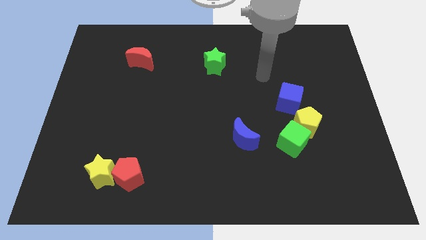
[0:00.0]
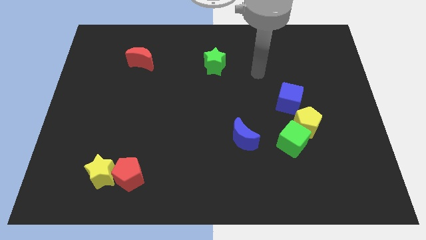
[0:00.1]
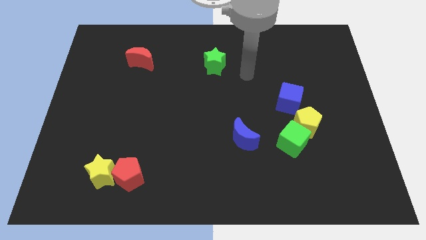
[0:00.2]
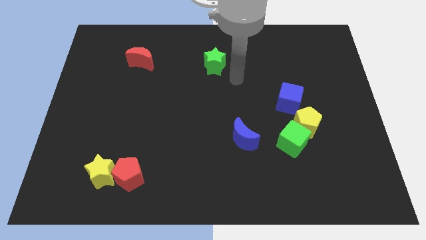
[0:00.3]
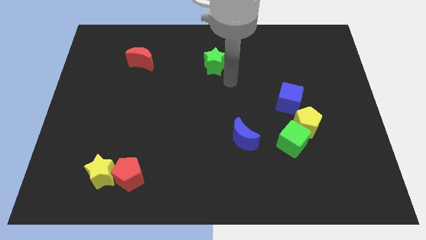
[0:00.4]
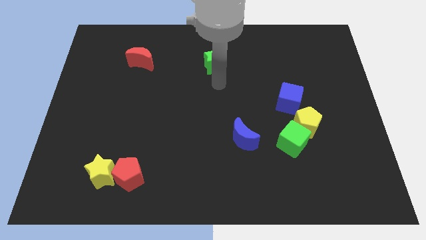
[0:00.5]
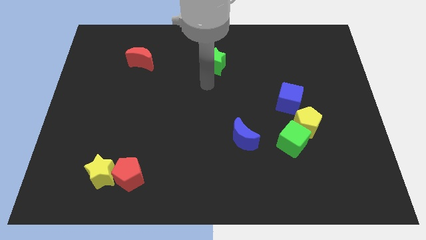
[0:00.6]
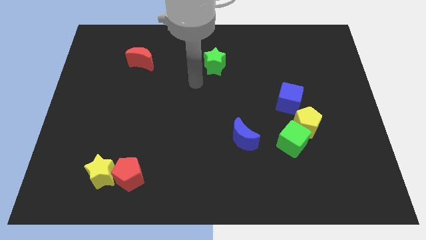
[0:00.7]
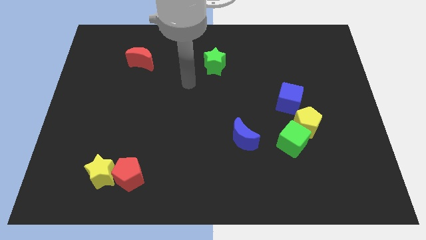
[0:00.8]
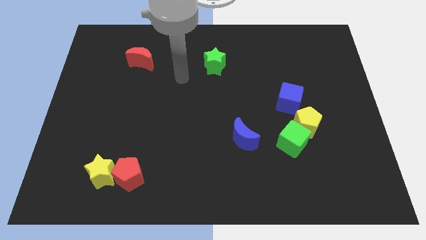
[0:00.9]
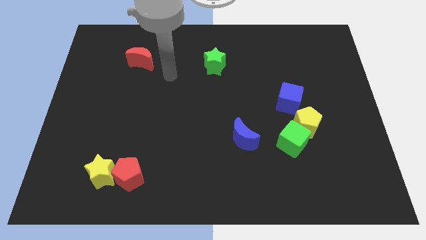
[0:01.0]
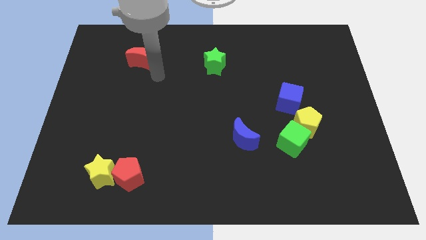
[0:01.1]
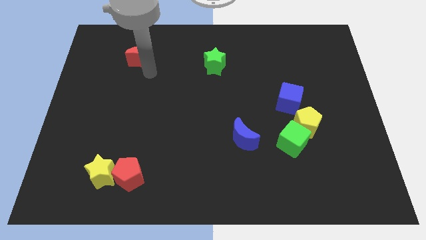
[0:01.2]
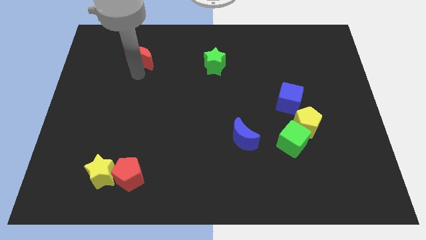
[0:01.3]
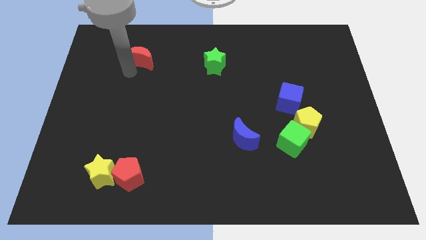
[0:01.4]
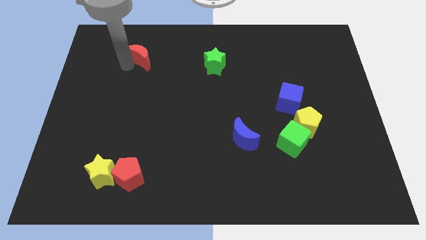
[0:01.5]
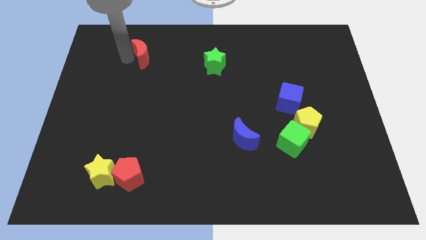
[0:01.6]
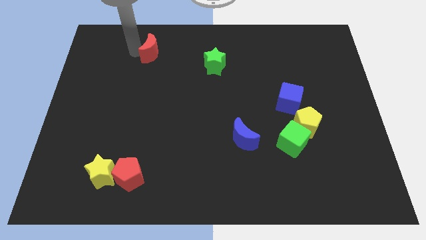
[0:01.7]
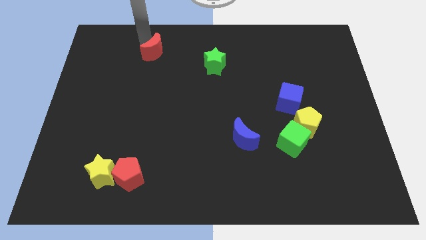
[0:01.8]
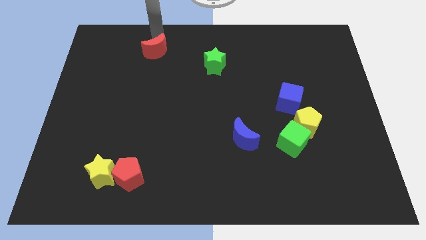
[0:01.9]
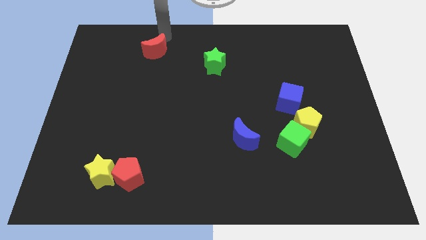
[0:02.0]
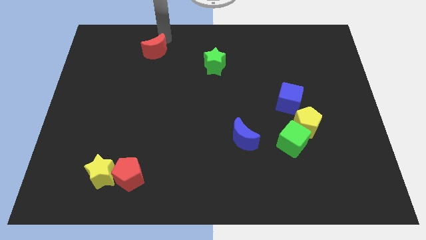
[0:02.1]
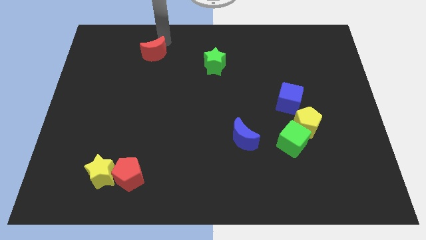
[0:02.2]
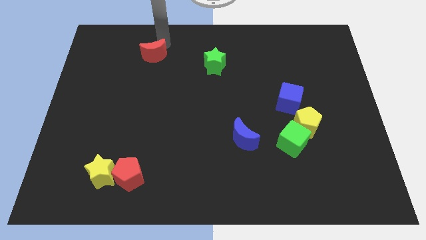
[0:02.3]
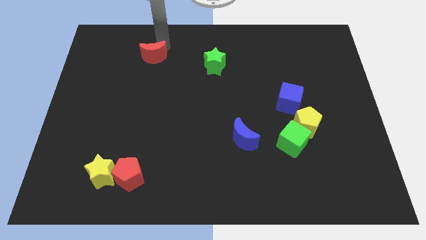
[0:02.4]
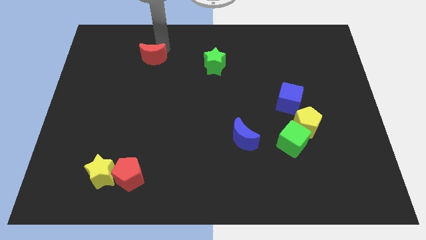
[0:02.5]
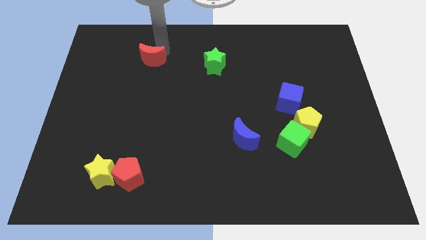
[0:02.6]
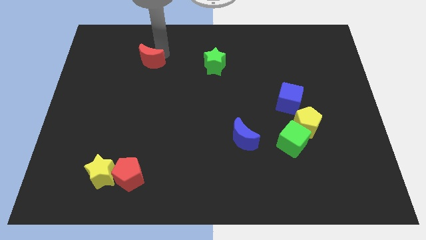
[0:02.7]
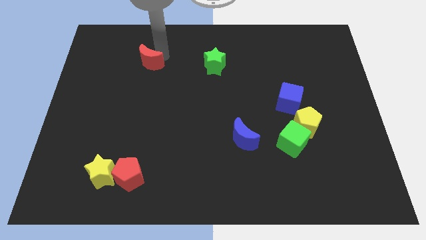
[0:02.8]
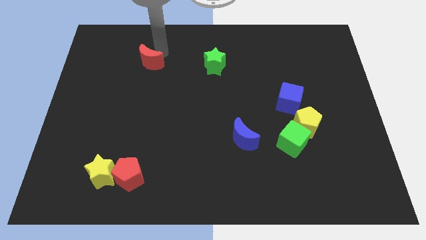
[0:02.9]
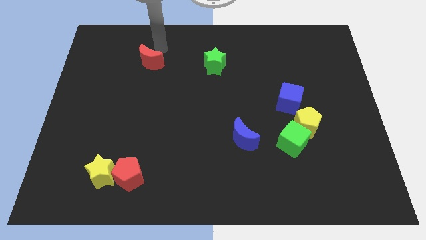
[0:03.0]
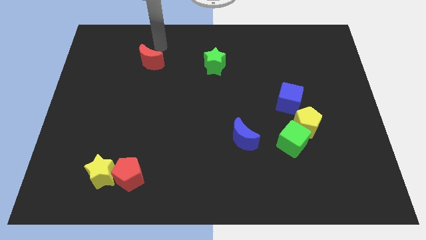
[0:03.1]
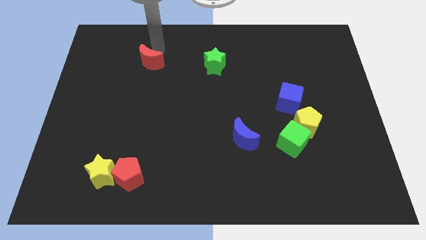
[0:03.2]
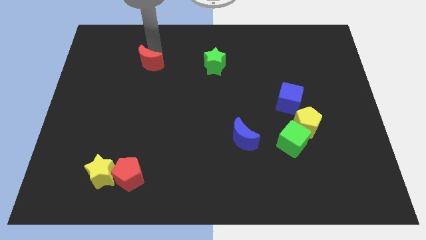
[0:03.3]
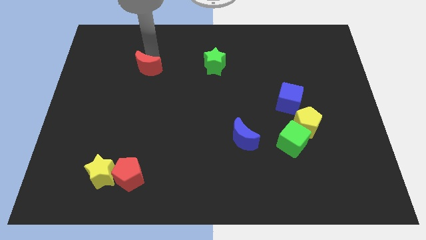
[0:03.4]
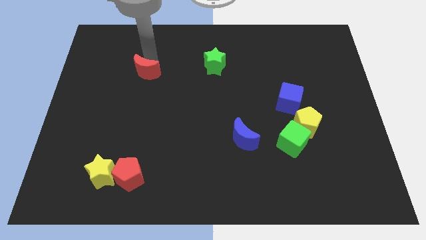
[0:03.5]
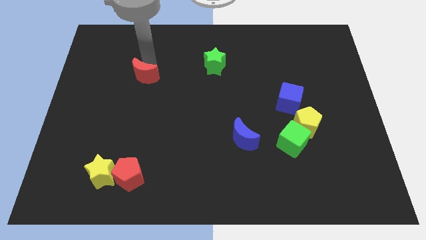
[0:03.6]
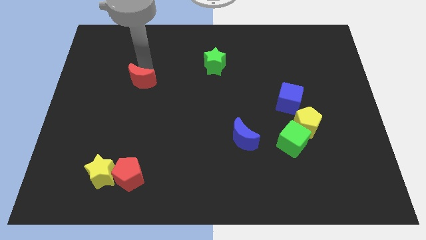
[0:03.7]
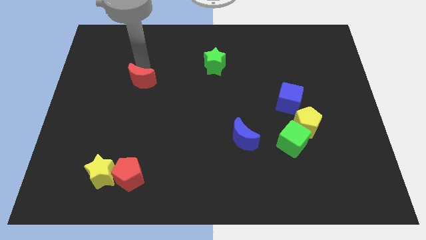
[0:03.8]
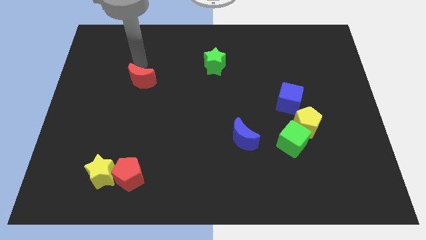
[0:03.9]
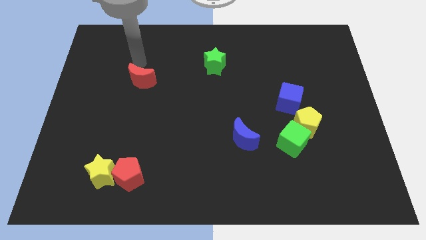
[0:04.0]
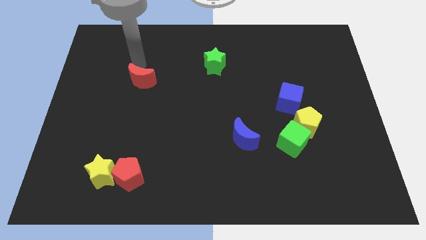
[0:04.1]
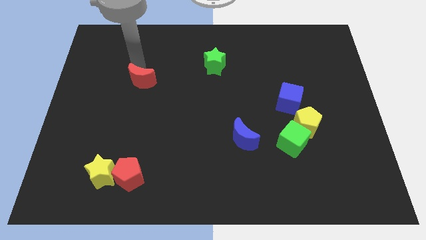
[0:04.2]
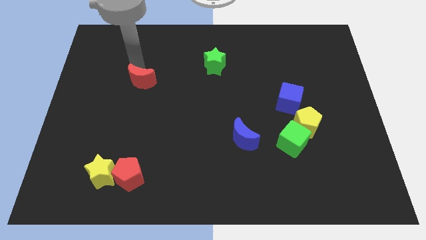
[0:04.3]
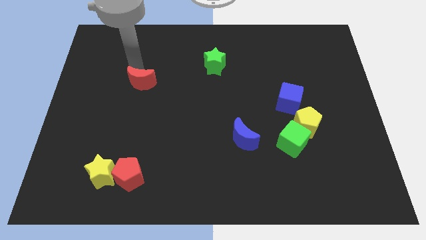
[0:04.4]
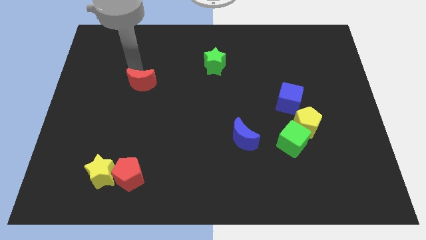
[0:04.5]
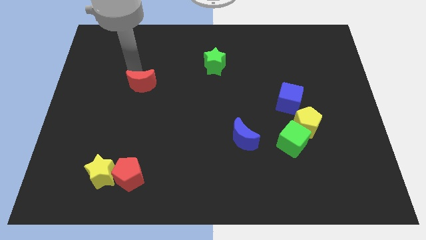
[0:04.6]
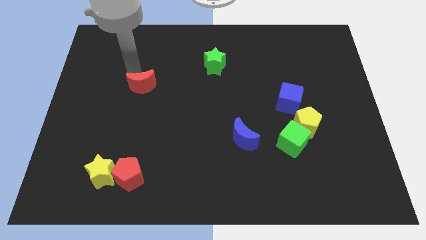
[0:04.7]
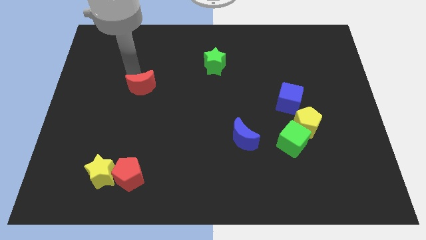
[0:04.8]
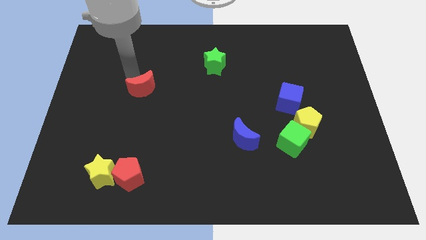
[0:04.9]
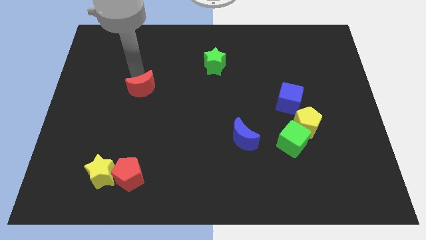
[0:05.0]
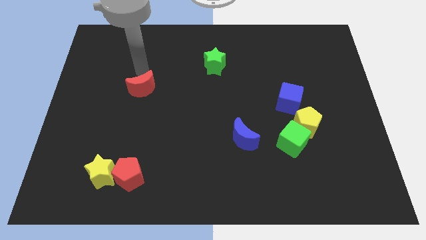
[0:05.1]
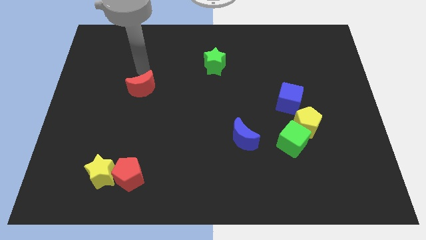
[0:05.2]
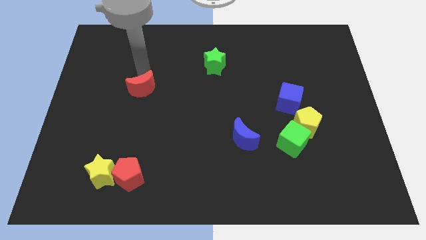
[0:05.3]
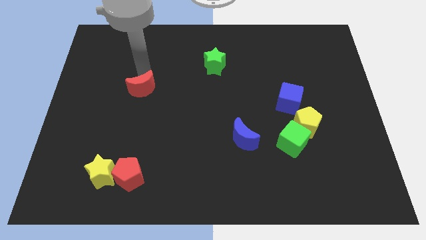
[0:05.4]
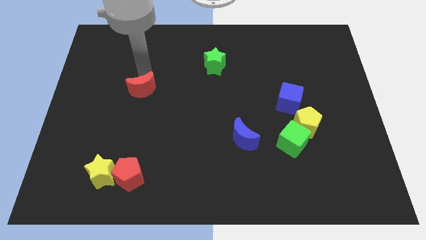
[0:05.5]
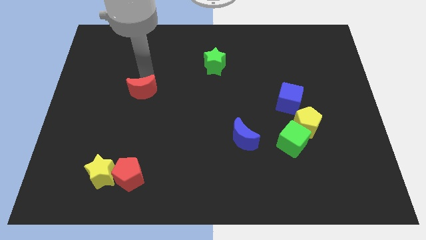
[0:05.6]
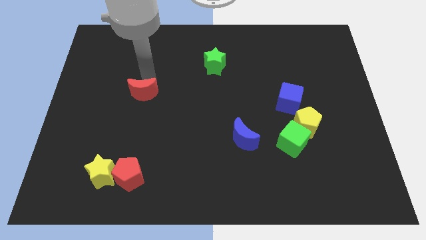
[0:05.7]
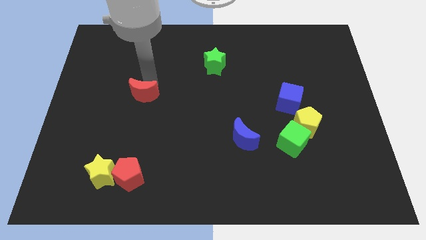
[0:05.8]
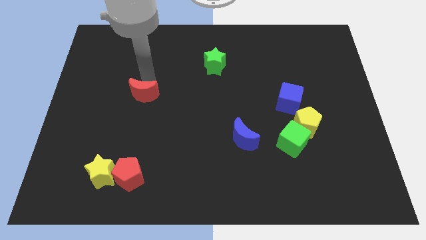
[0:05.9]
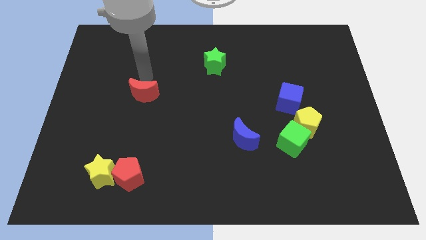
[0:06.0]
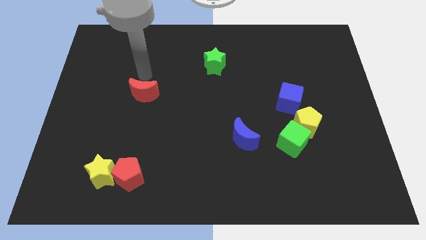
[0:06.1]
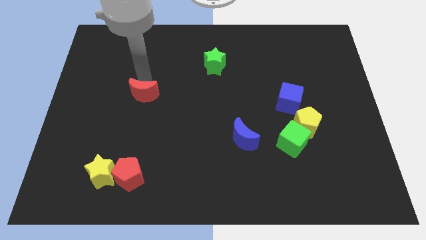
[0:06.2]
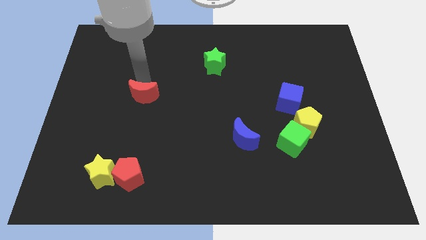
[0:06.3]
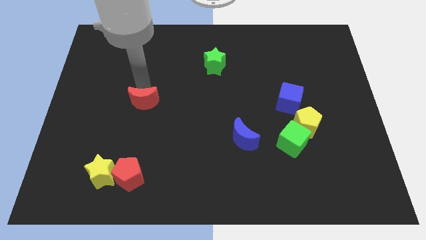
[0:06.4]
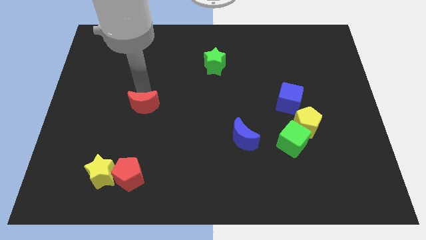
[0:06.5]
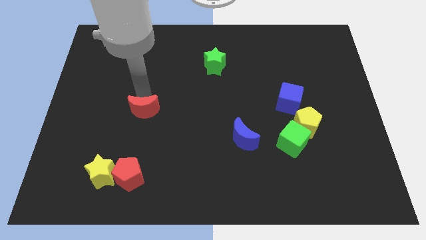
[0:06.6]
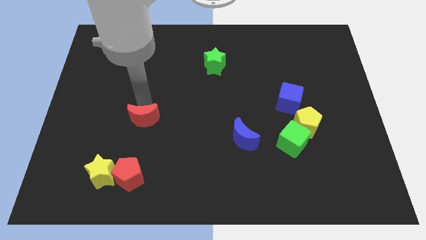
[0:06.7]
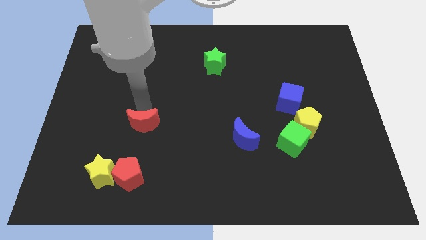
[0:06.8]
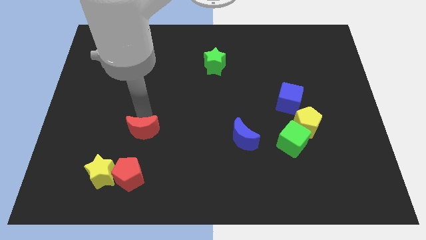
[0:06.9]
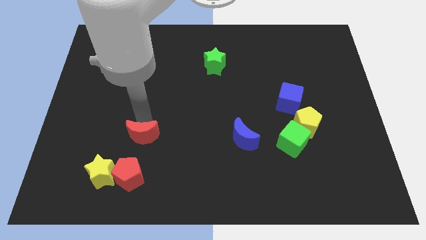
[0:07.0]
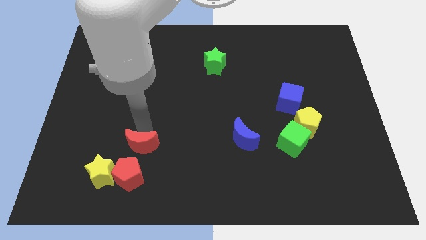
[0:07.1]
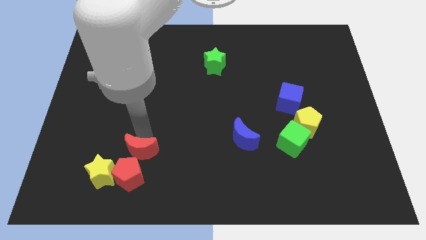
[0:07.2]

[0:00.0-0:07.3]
move the red moon next to the red pentagon
